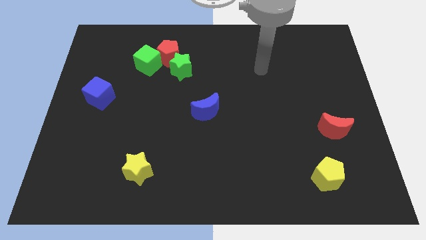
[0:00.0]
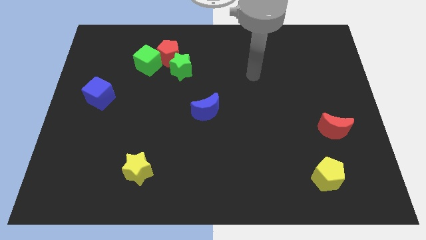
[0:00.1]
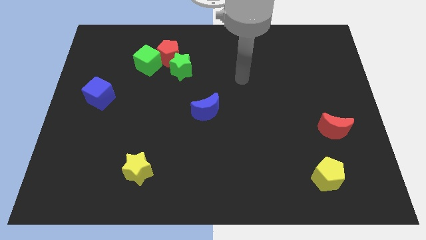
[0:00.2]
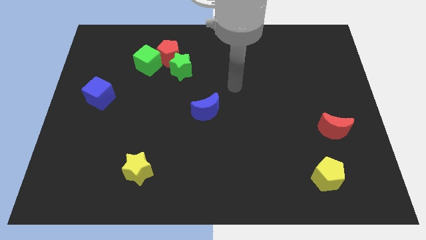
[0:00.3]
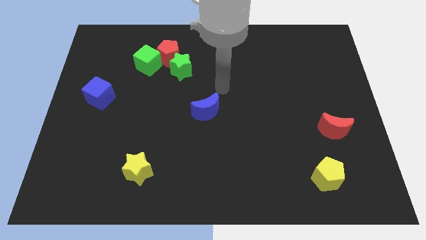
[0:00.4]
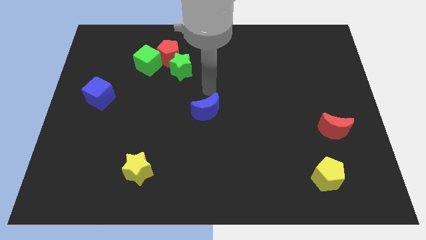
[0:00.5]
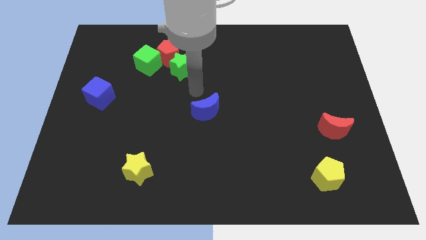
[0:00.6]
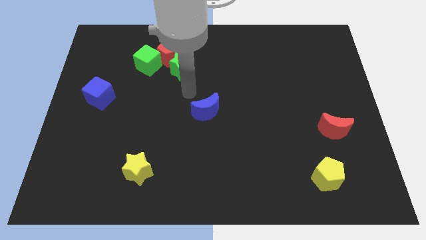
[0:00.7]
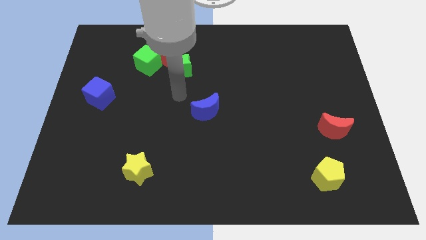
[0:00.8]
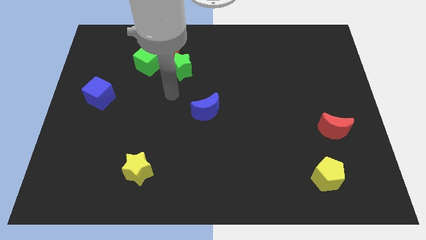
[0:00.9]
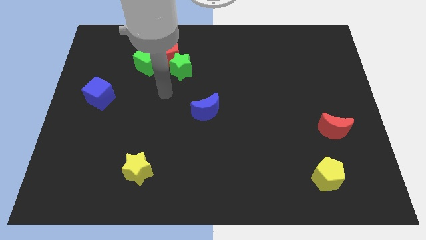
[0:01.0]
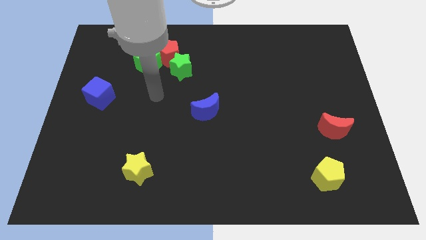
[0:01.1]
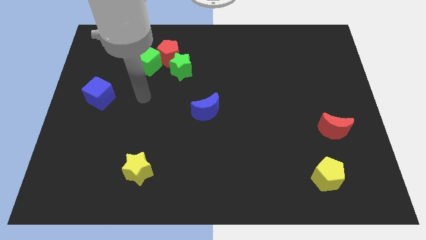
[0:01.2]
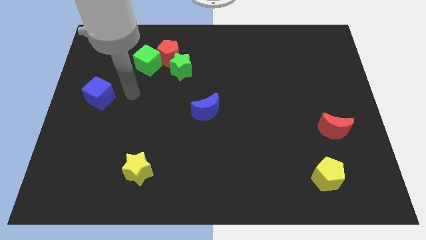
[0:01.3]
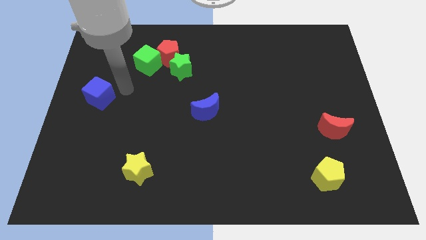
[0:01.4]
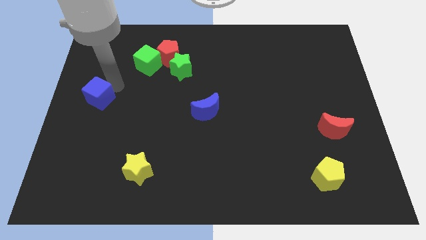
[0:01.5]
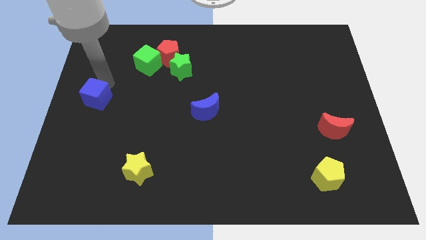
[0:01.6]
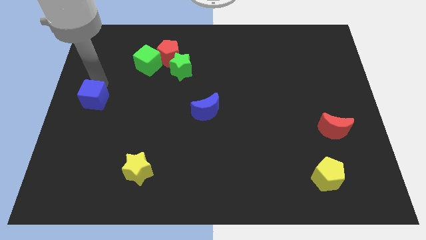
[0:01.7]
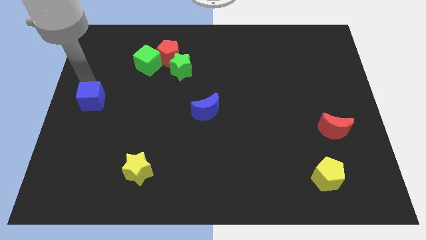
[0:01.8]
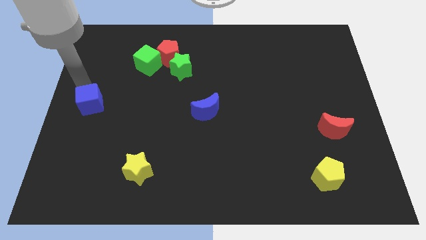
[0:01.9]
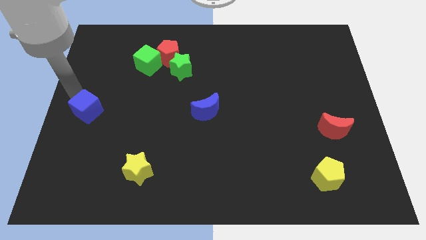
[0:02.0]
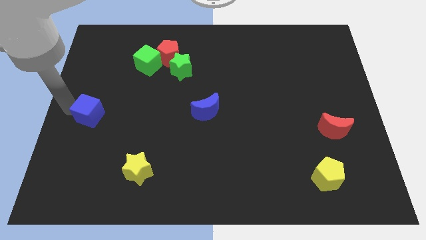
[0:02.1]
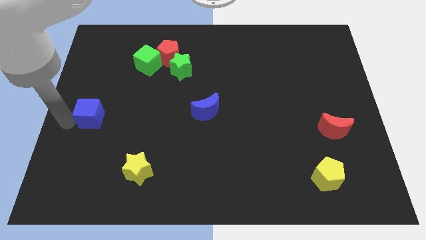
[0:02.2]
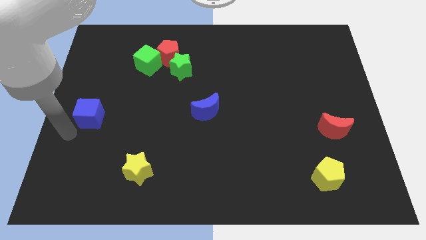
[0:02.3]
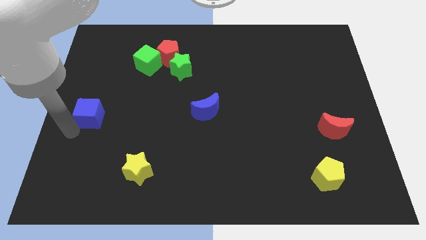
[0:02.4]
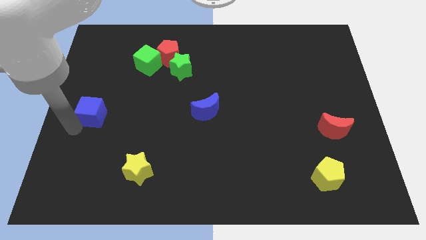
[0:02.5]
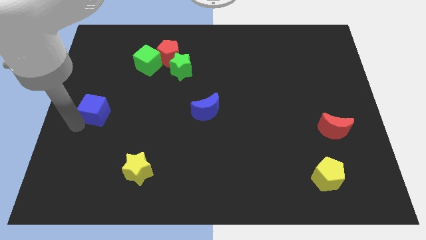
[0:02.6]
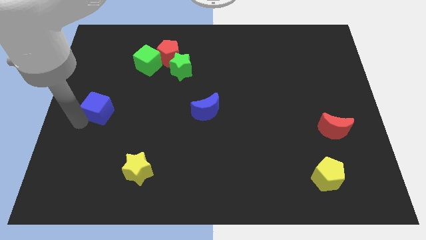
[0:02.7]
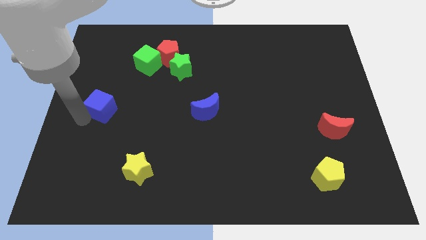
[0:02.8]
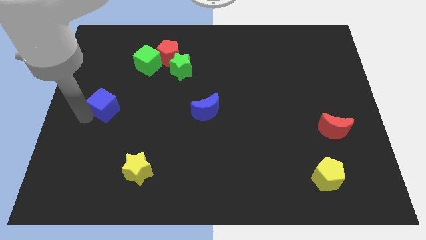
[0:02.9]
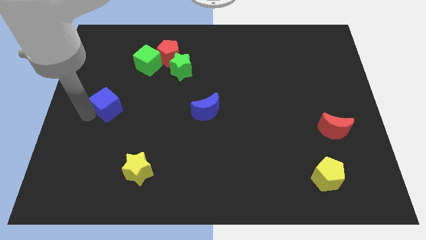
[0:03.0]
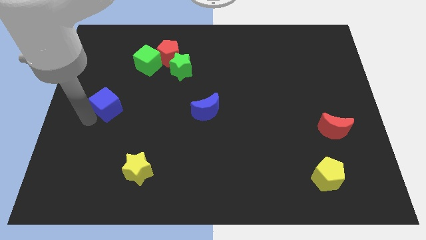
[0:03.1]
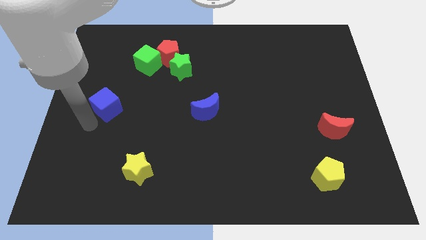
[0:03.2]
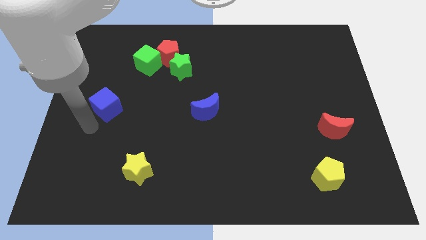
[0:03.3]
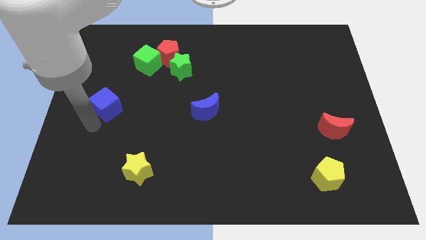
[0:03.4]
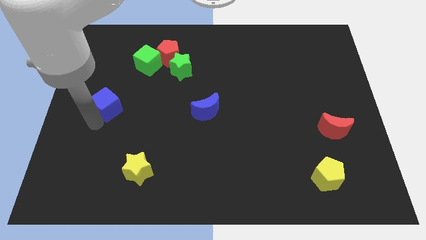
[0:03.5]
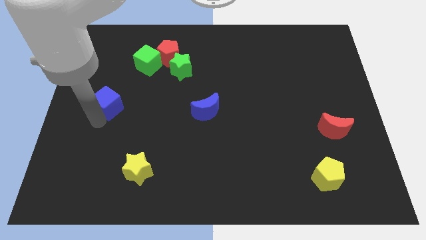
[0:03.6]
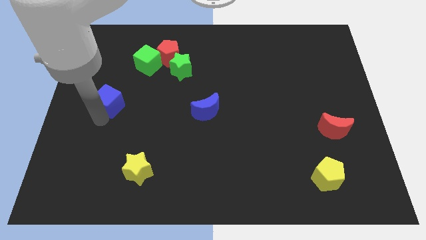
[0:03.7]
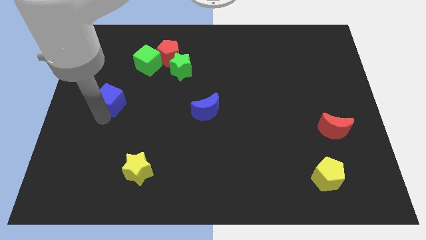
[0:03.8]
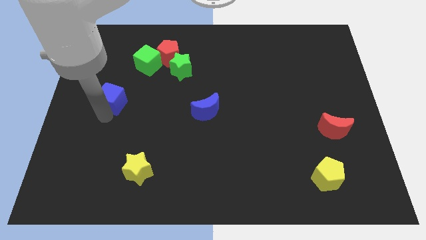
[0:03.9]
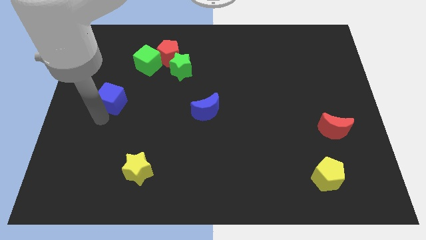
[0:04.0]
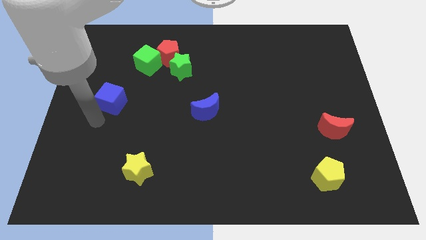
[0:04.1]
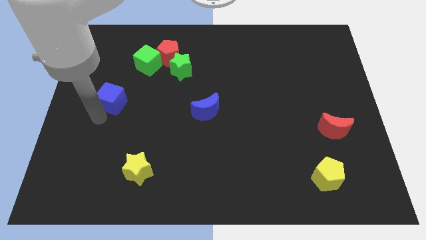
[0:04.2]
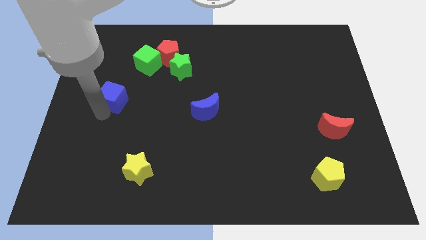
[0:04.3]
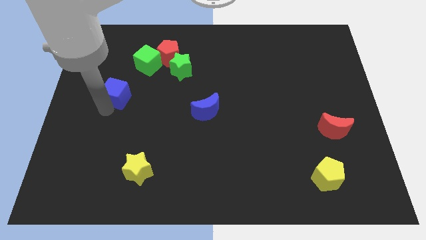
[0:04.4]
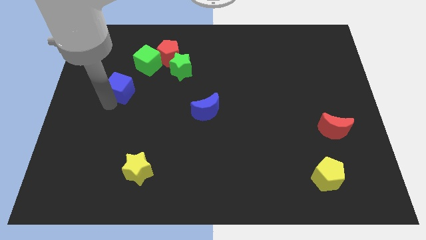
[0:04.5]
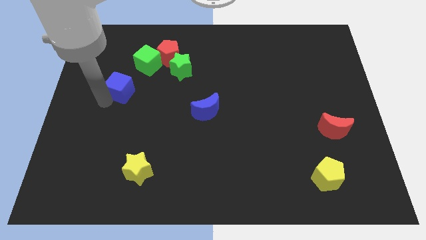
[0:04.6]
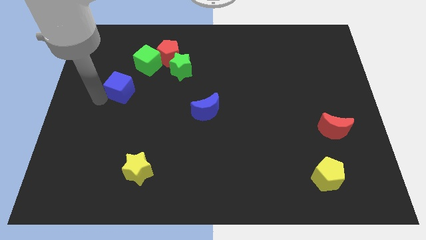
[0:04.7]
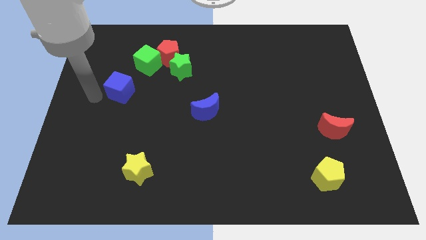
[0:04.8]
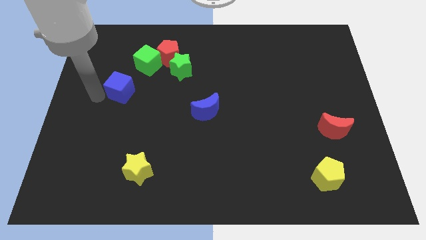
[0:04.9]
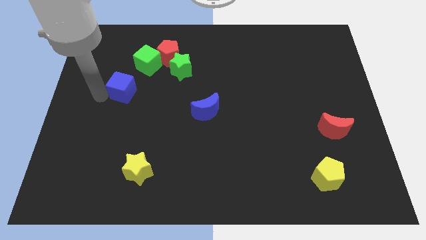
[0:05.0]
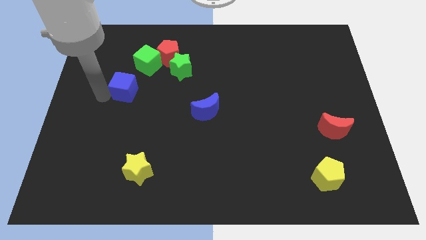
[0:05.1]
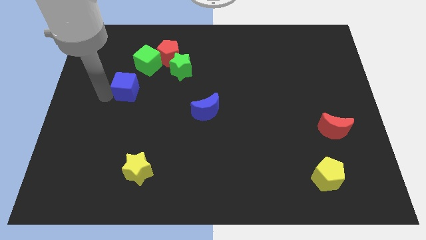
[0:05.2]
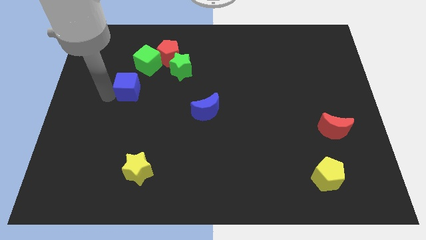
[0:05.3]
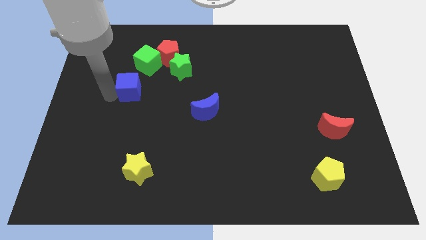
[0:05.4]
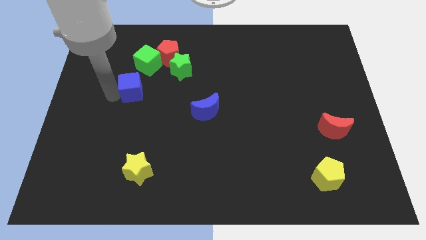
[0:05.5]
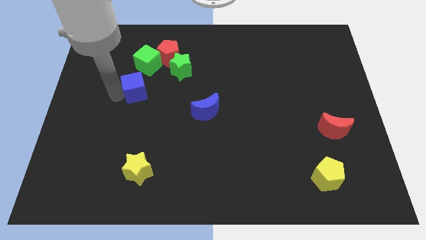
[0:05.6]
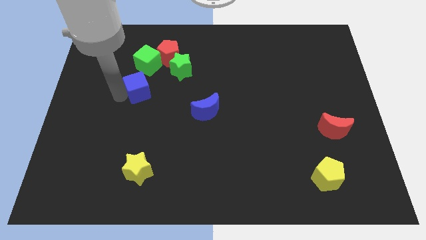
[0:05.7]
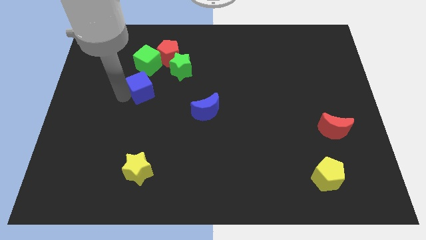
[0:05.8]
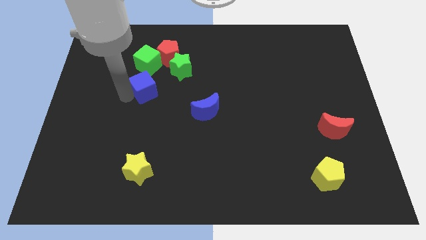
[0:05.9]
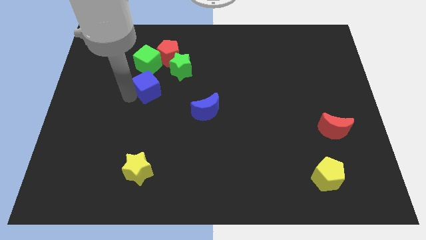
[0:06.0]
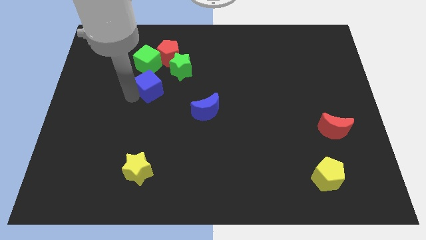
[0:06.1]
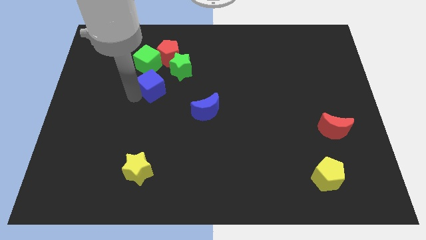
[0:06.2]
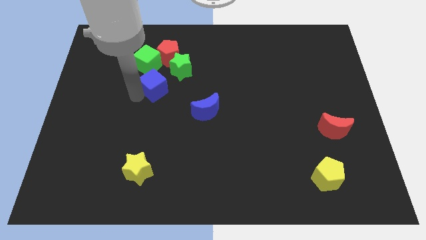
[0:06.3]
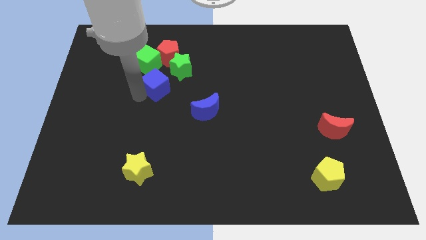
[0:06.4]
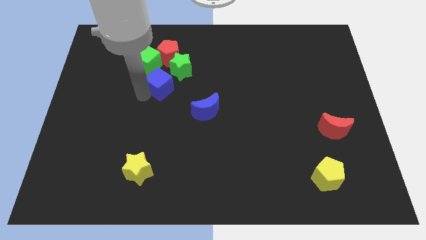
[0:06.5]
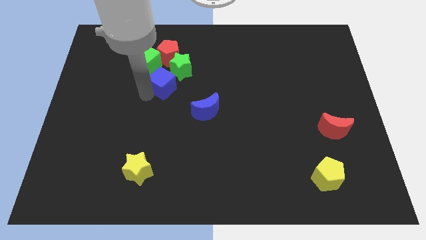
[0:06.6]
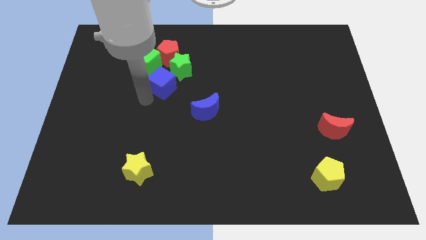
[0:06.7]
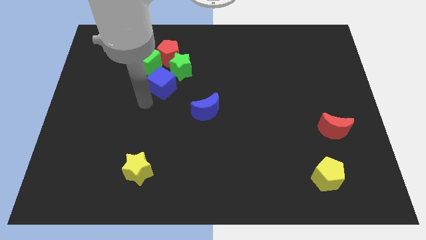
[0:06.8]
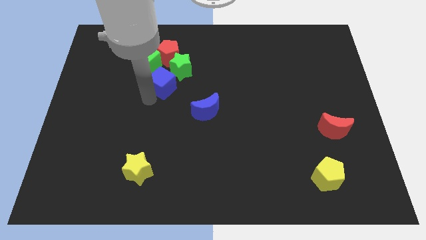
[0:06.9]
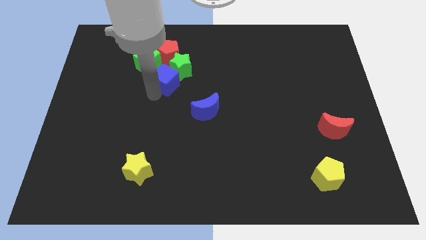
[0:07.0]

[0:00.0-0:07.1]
slide the blue cube close to the green star
